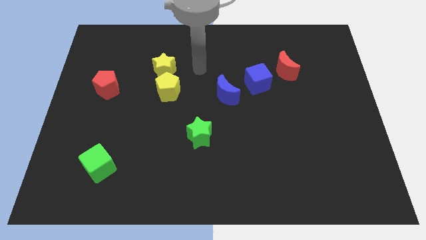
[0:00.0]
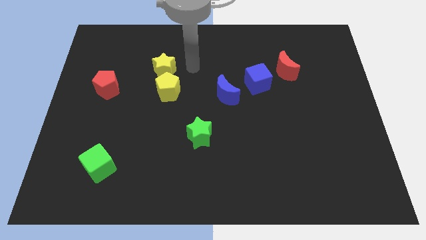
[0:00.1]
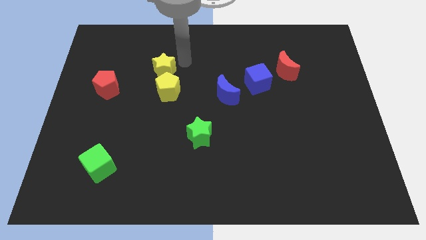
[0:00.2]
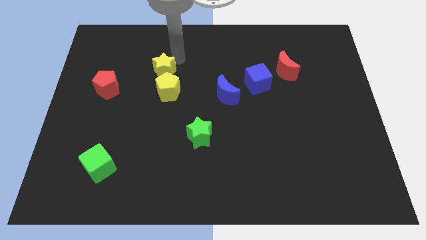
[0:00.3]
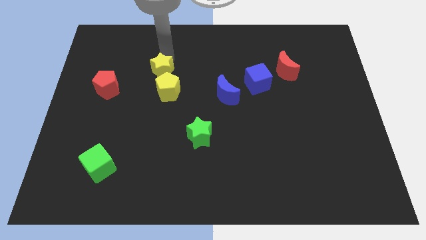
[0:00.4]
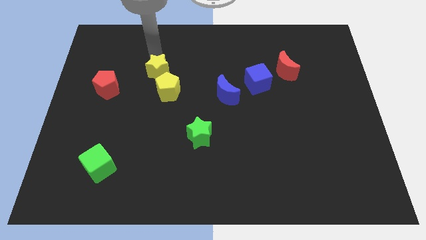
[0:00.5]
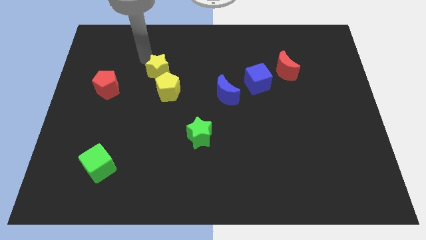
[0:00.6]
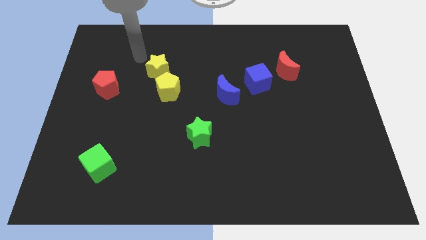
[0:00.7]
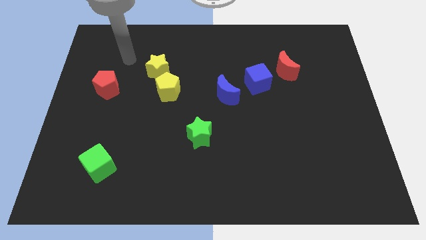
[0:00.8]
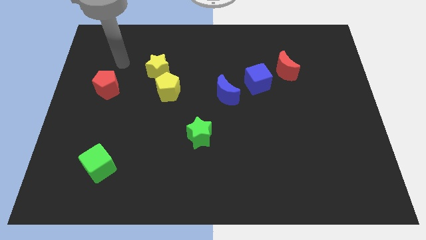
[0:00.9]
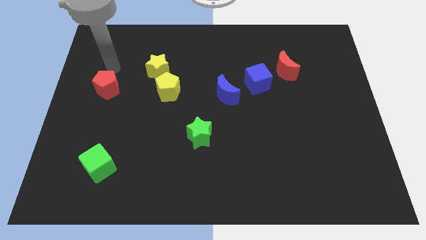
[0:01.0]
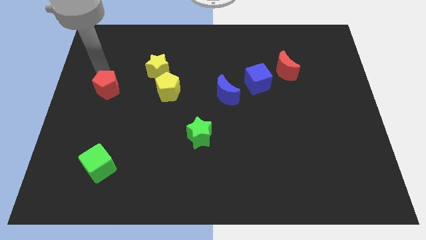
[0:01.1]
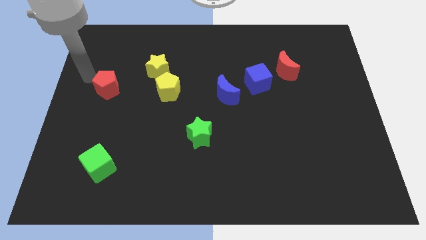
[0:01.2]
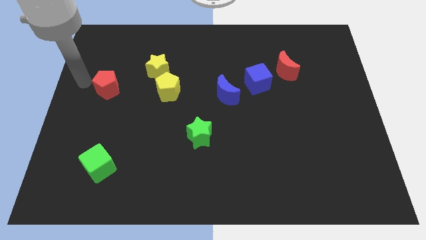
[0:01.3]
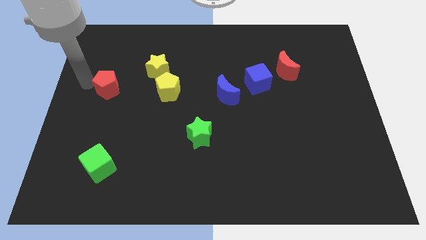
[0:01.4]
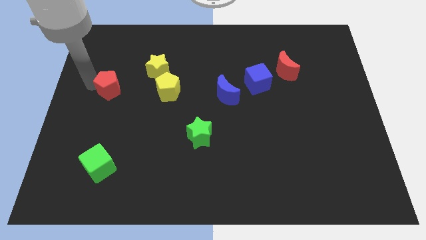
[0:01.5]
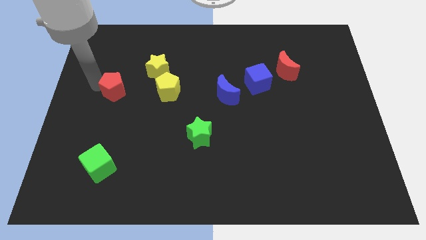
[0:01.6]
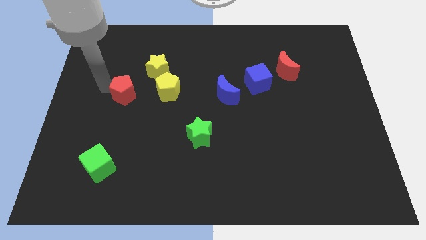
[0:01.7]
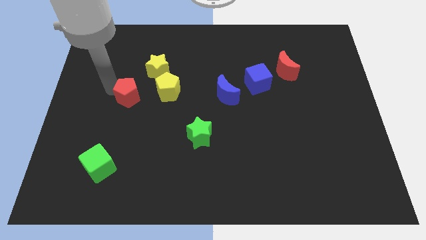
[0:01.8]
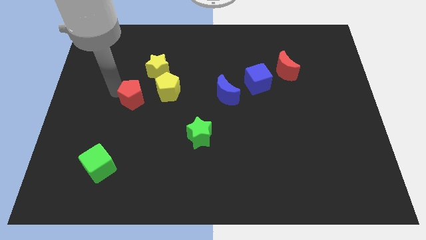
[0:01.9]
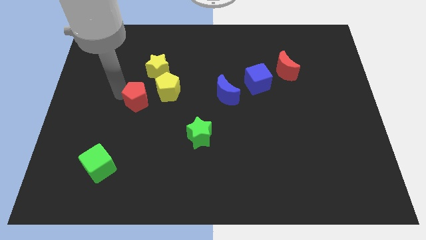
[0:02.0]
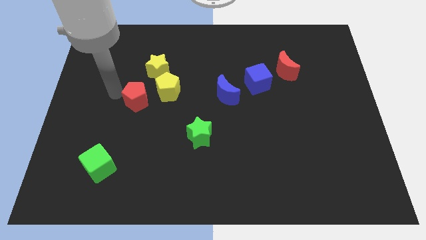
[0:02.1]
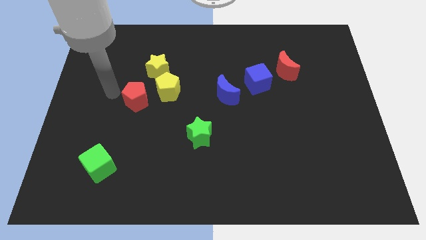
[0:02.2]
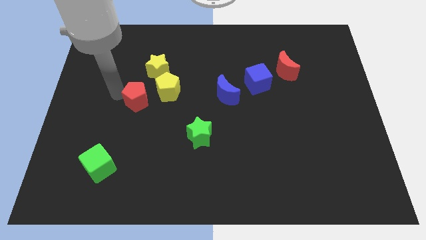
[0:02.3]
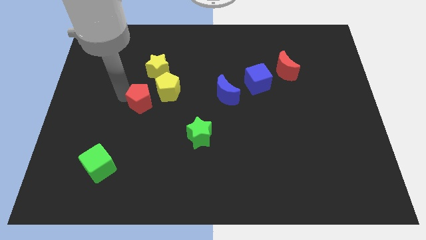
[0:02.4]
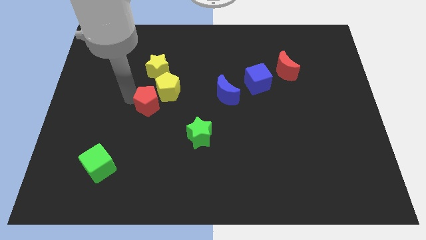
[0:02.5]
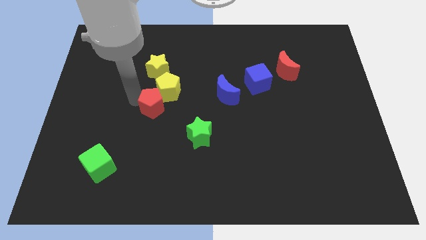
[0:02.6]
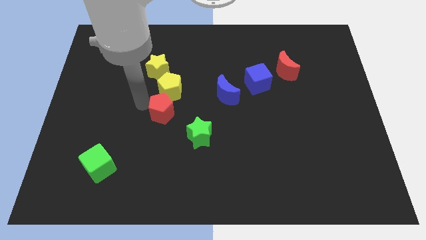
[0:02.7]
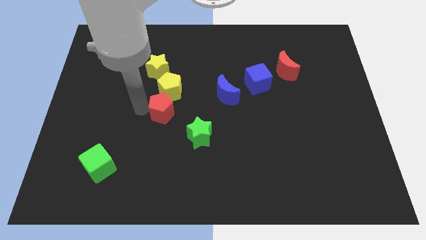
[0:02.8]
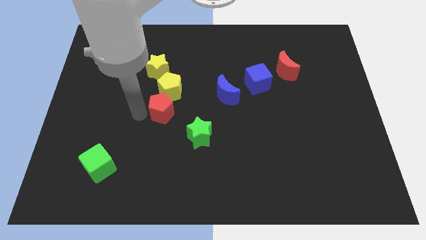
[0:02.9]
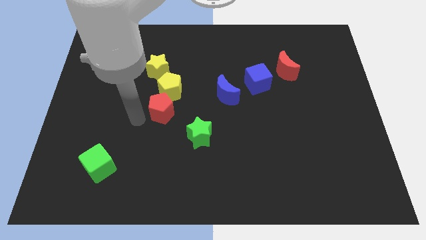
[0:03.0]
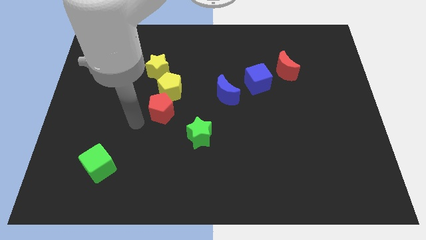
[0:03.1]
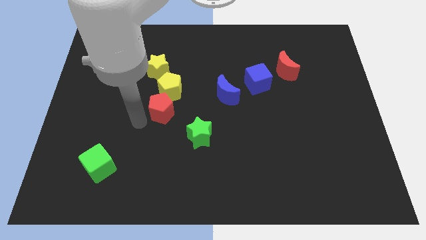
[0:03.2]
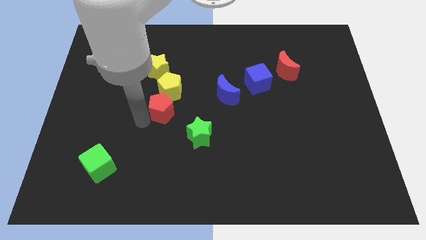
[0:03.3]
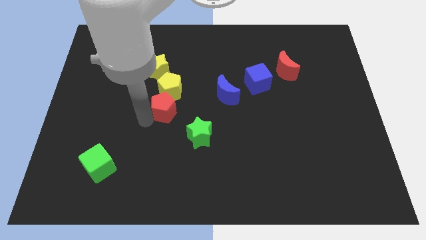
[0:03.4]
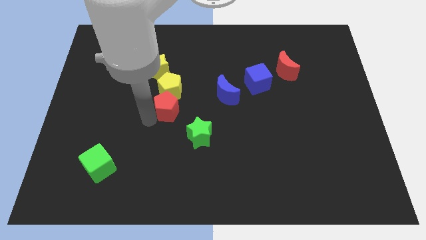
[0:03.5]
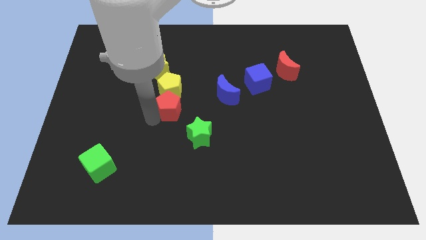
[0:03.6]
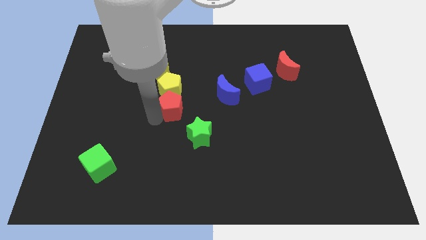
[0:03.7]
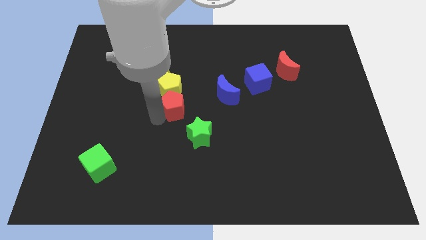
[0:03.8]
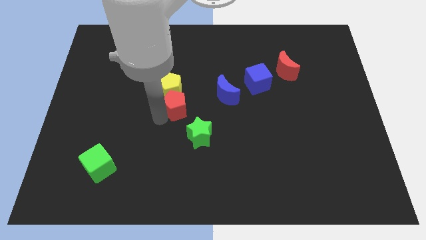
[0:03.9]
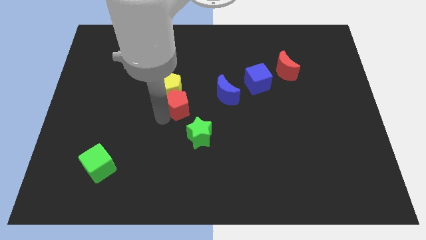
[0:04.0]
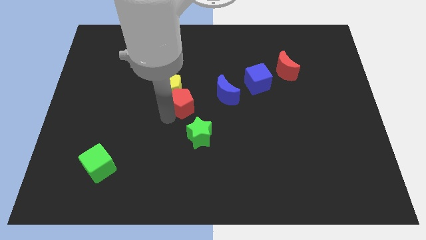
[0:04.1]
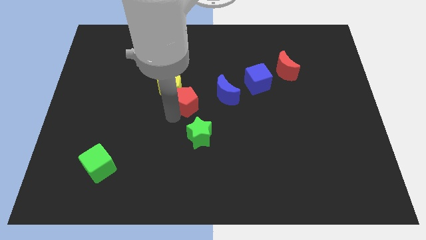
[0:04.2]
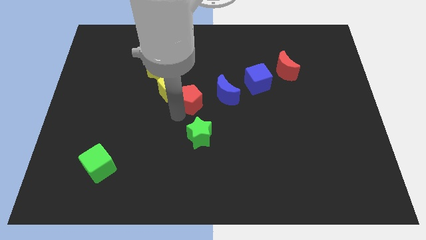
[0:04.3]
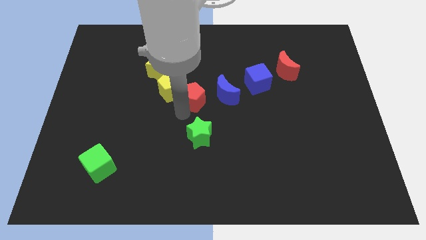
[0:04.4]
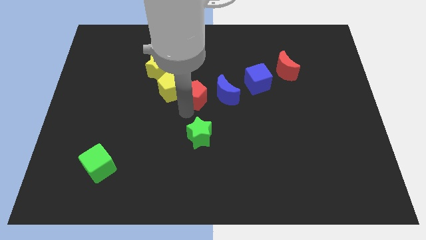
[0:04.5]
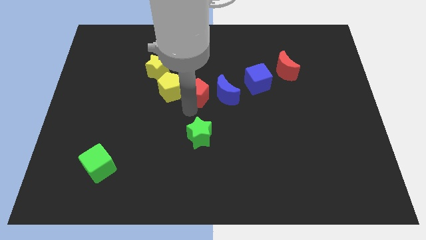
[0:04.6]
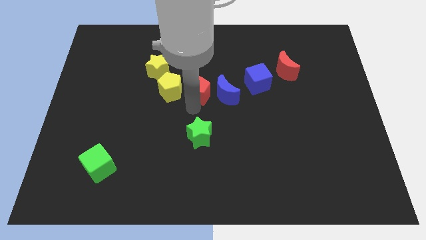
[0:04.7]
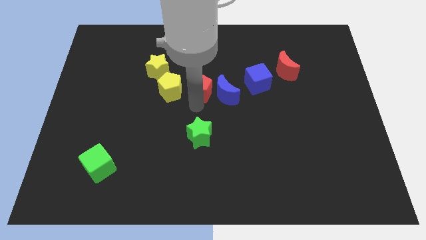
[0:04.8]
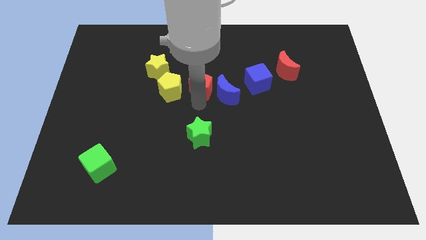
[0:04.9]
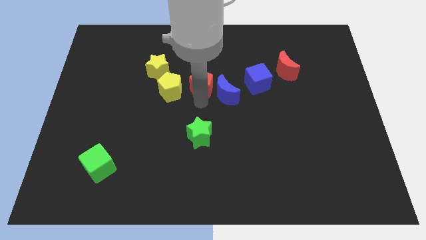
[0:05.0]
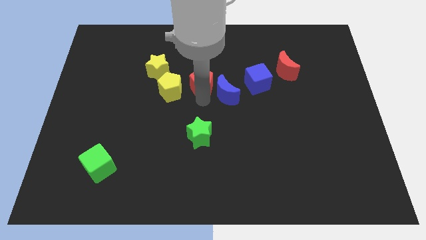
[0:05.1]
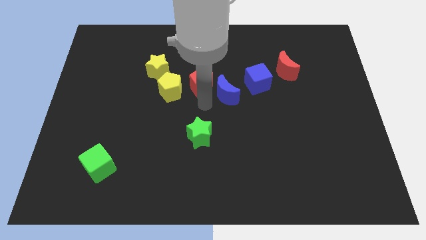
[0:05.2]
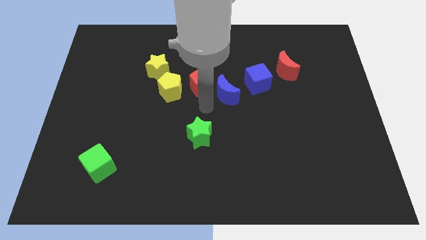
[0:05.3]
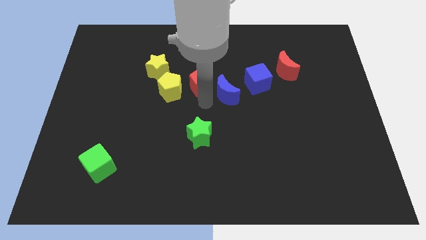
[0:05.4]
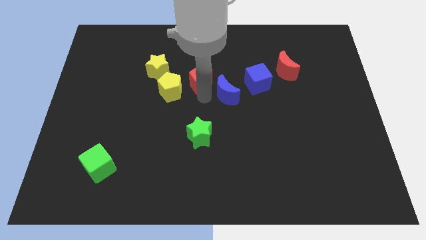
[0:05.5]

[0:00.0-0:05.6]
move the red pentagon to the right of the yellow star

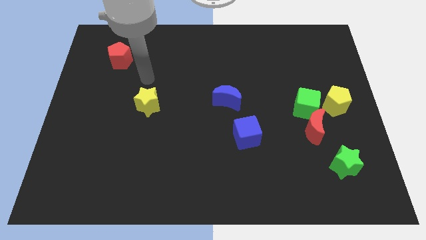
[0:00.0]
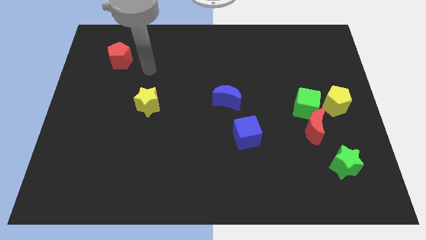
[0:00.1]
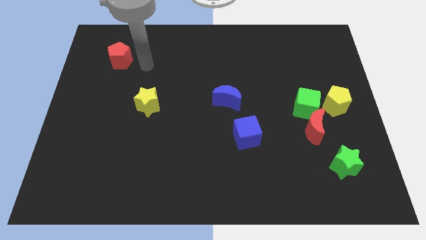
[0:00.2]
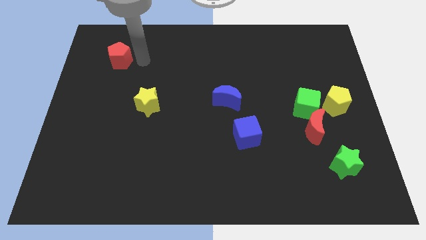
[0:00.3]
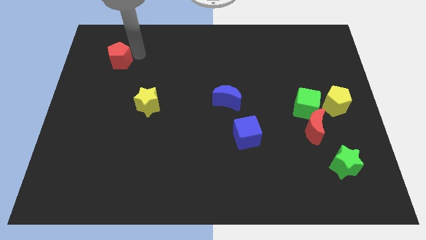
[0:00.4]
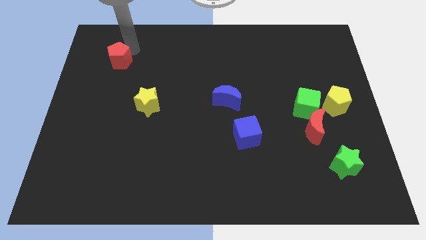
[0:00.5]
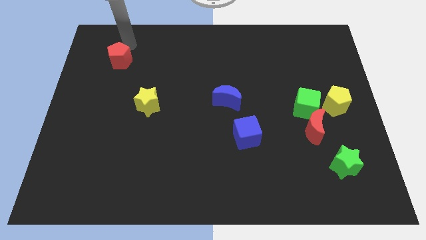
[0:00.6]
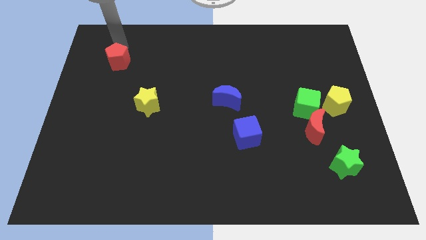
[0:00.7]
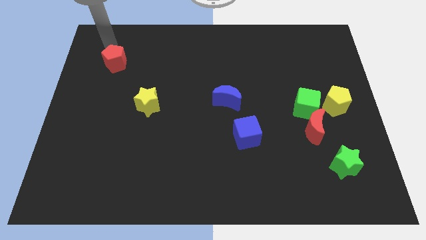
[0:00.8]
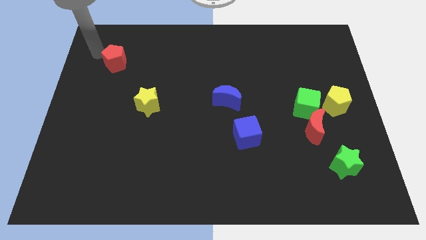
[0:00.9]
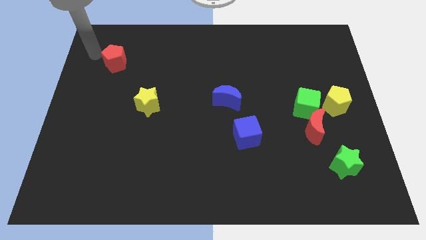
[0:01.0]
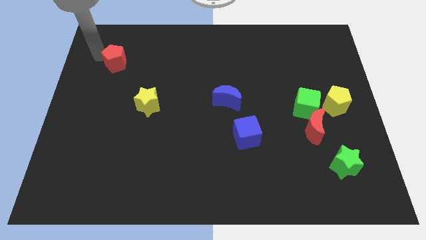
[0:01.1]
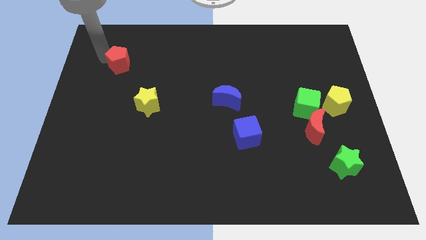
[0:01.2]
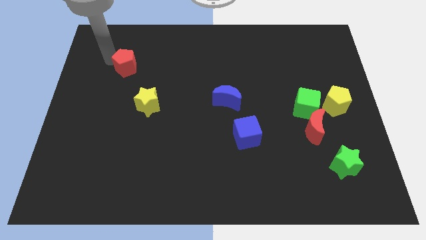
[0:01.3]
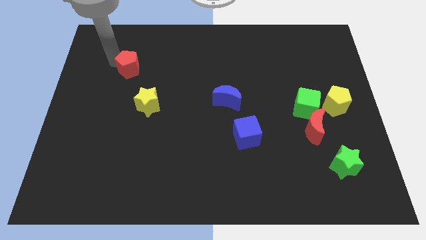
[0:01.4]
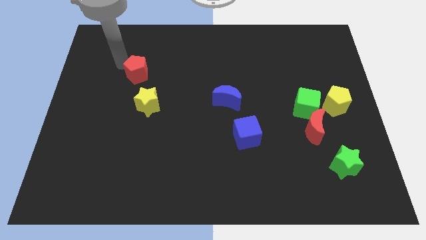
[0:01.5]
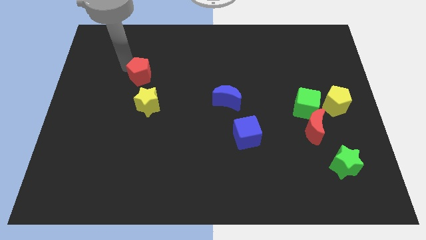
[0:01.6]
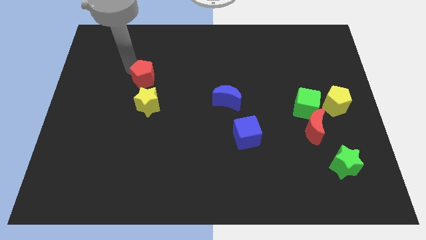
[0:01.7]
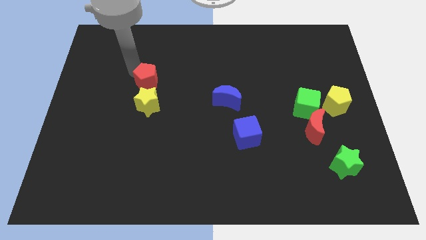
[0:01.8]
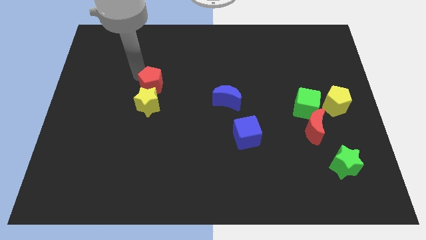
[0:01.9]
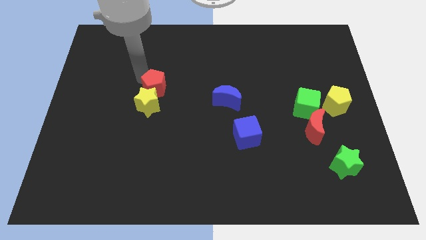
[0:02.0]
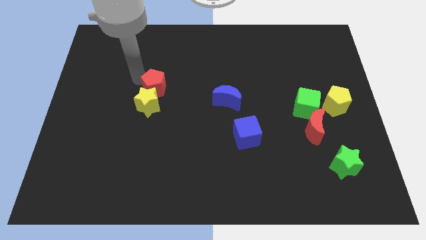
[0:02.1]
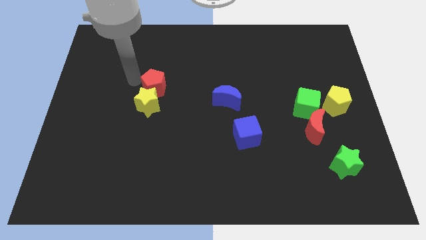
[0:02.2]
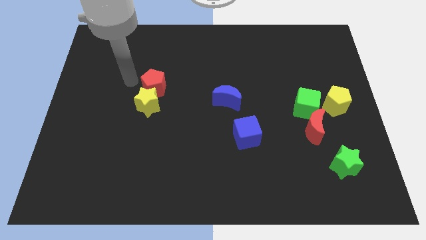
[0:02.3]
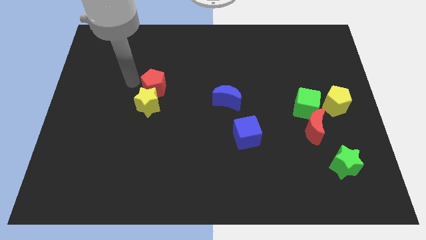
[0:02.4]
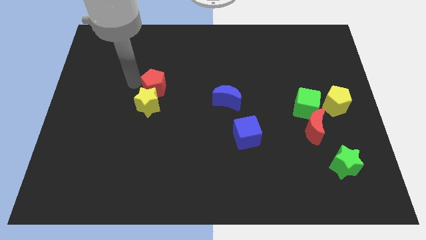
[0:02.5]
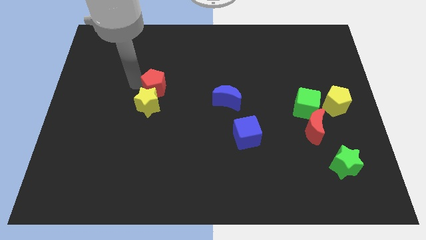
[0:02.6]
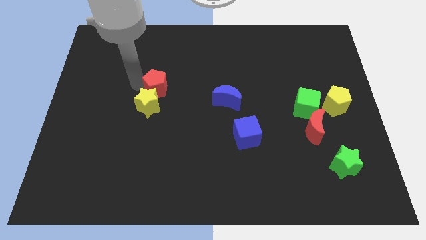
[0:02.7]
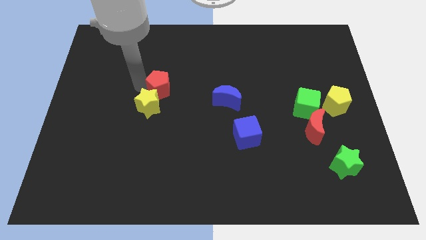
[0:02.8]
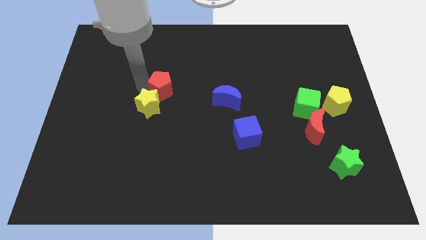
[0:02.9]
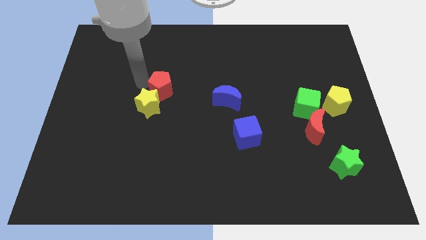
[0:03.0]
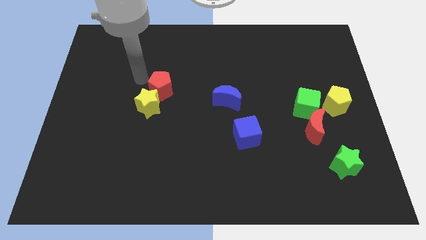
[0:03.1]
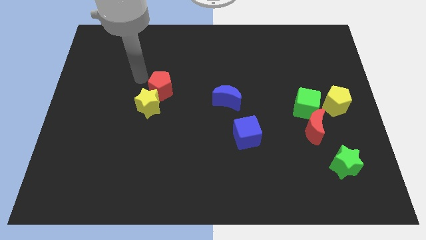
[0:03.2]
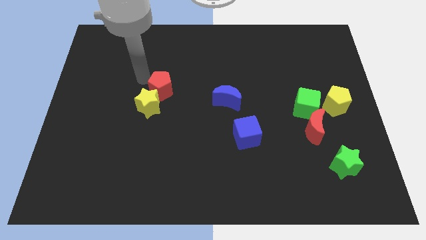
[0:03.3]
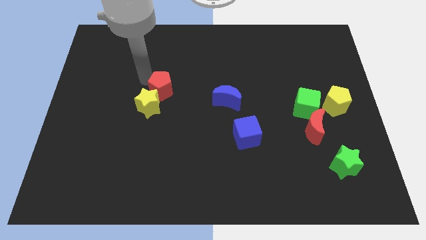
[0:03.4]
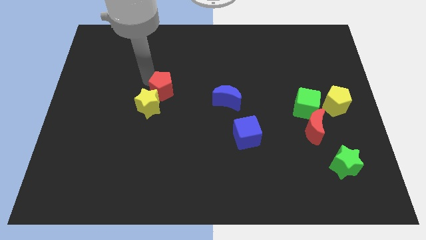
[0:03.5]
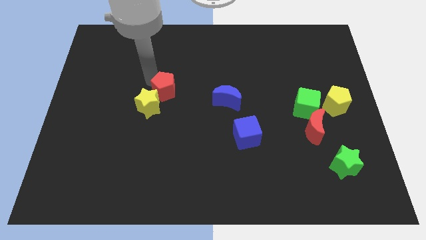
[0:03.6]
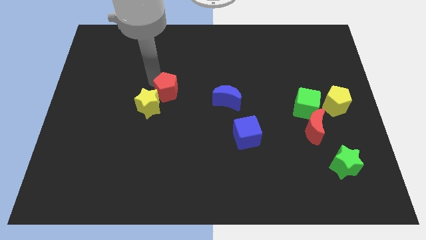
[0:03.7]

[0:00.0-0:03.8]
push the red pentagon left of the blue moon
